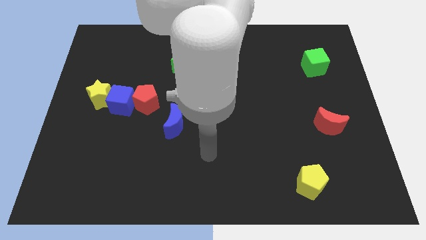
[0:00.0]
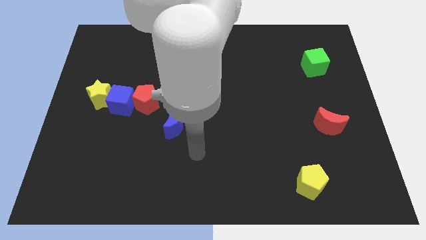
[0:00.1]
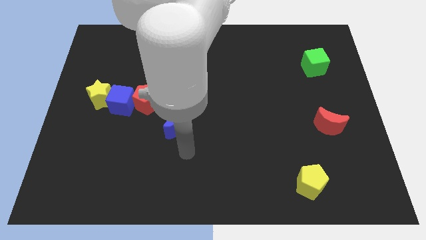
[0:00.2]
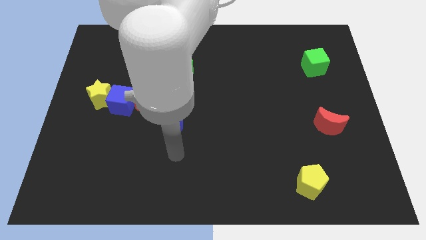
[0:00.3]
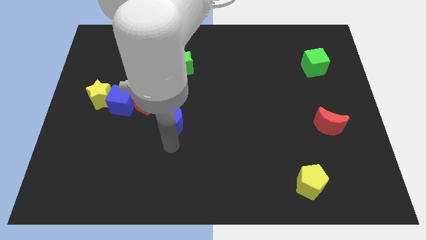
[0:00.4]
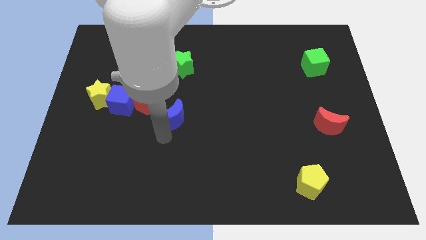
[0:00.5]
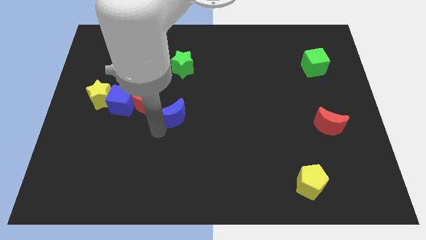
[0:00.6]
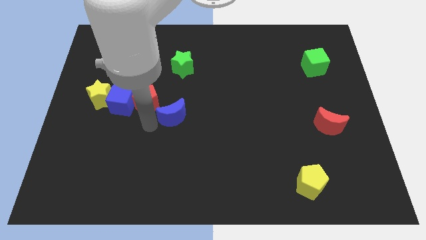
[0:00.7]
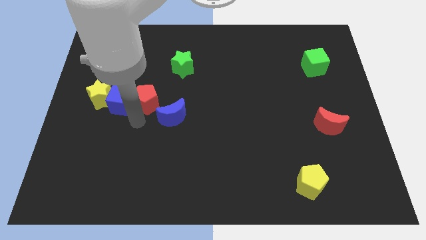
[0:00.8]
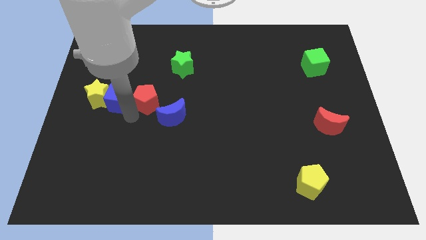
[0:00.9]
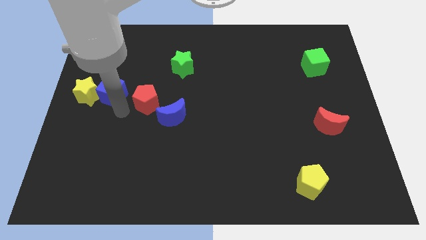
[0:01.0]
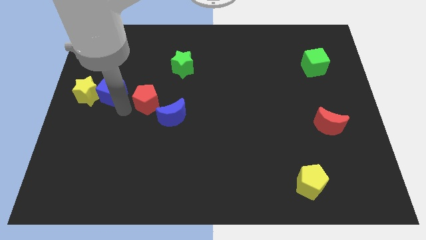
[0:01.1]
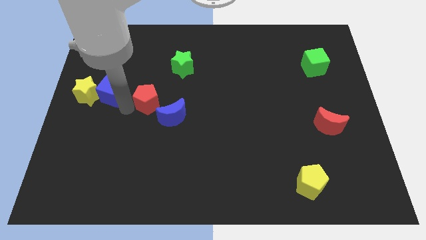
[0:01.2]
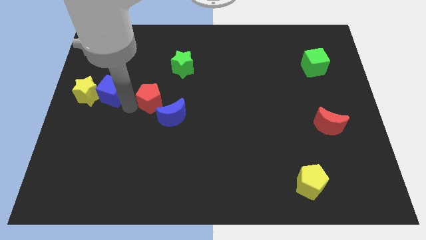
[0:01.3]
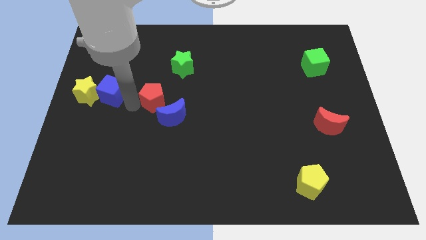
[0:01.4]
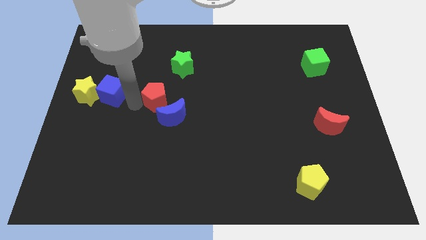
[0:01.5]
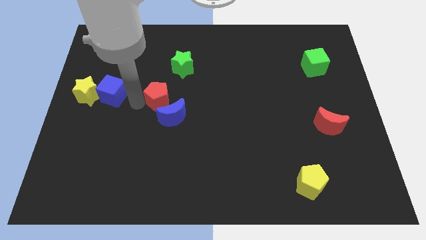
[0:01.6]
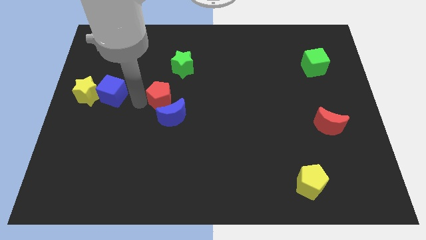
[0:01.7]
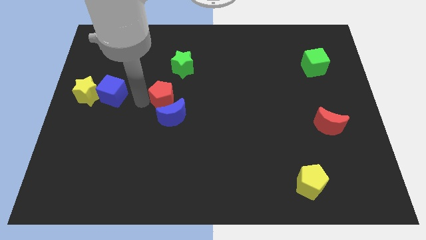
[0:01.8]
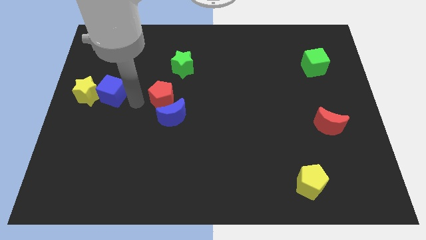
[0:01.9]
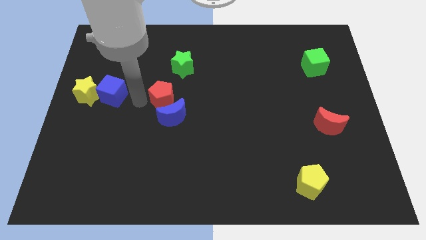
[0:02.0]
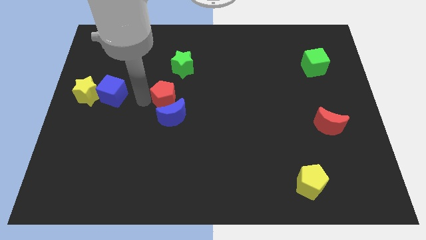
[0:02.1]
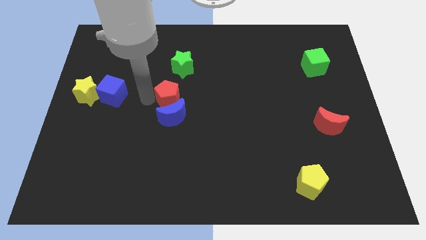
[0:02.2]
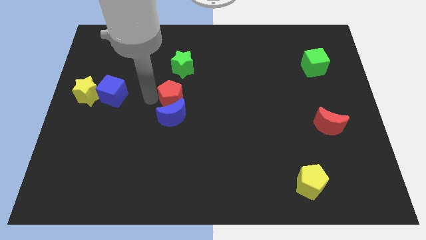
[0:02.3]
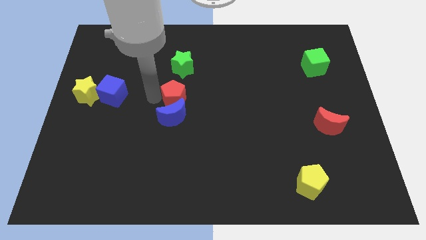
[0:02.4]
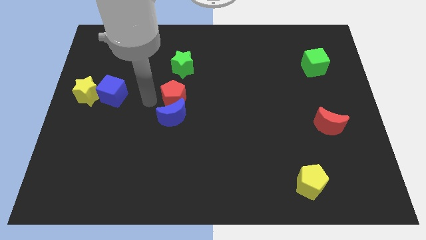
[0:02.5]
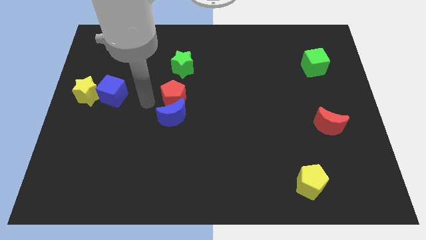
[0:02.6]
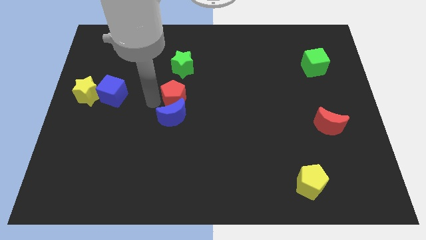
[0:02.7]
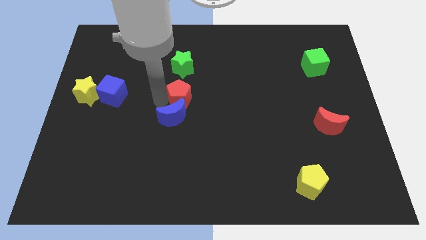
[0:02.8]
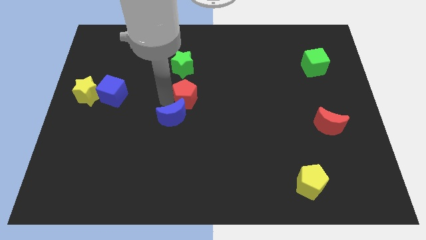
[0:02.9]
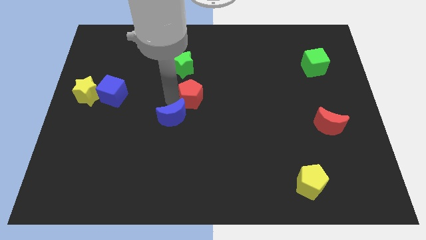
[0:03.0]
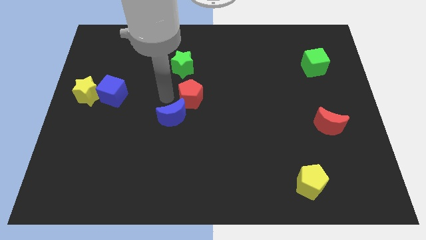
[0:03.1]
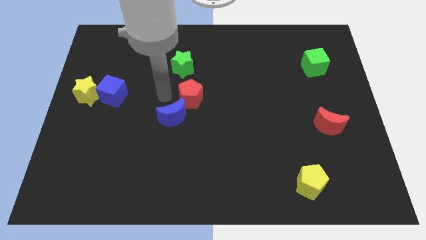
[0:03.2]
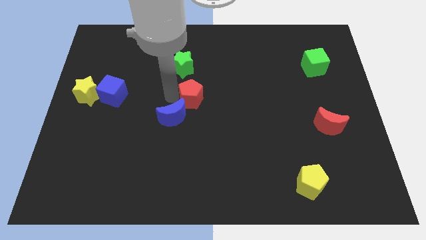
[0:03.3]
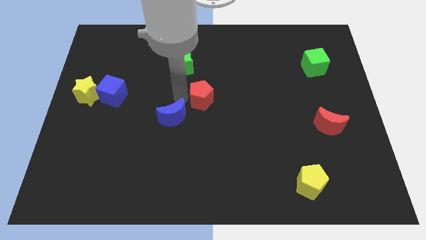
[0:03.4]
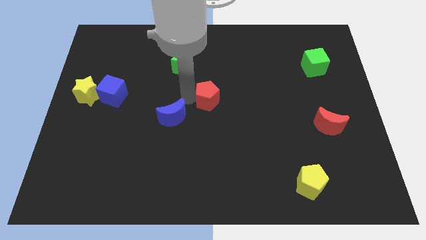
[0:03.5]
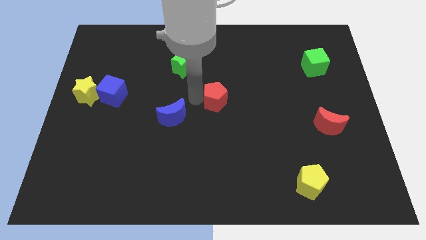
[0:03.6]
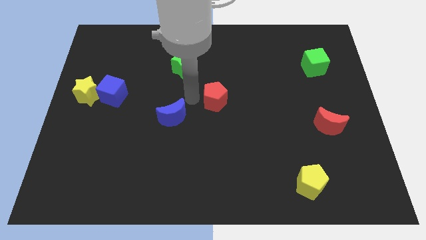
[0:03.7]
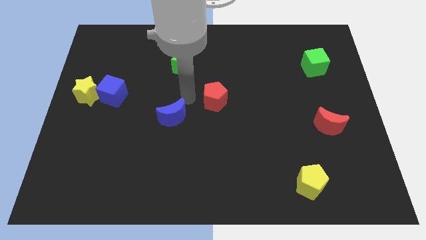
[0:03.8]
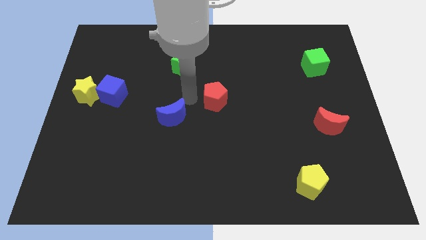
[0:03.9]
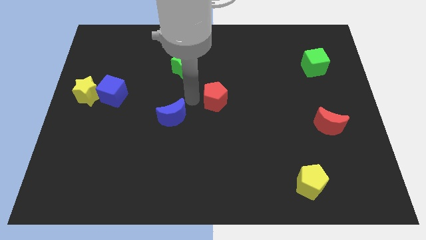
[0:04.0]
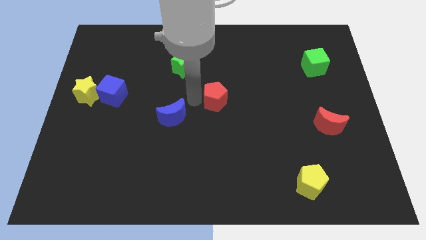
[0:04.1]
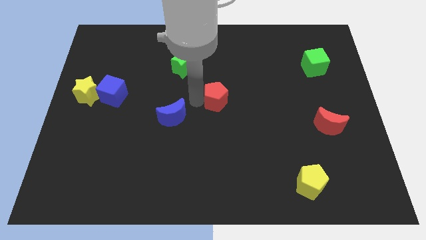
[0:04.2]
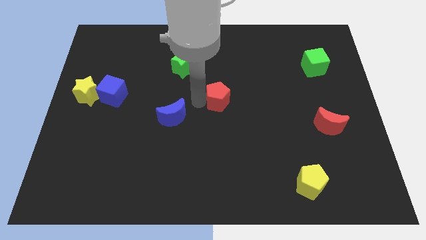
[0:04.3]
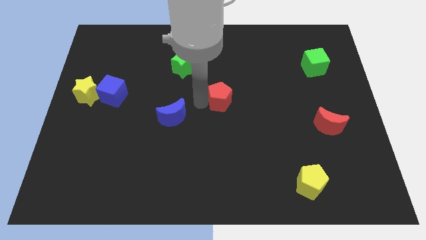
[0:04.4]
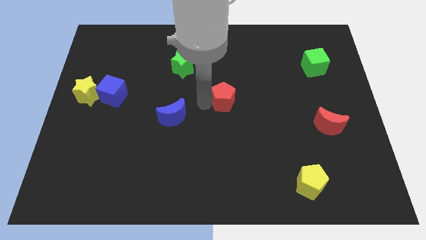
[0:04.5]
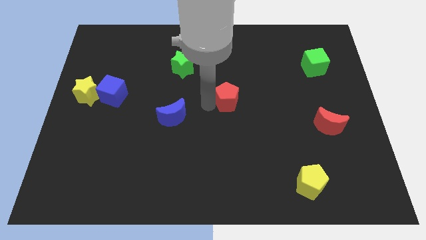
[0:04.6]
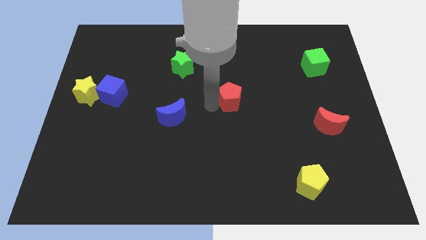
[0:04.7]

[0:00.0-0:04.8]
slide the red pentagon right

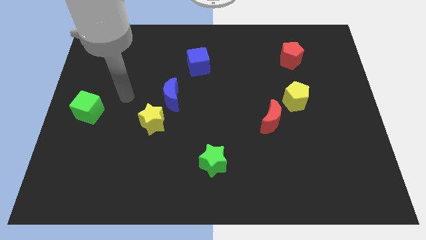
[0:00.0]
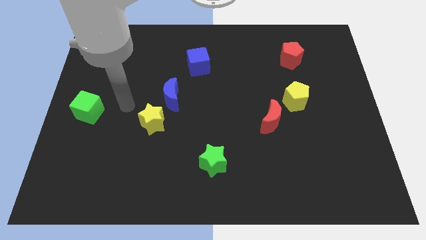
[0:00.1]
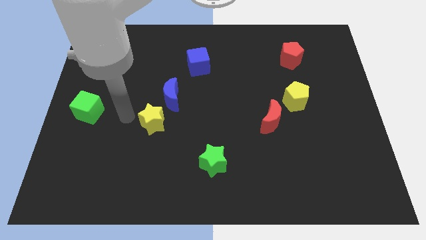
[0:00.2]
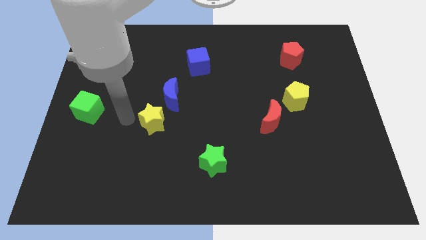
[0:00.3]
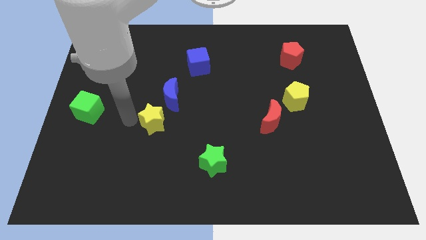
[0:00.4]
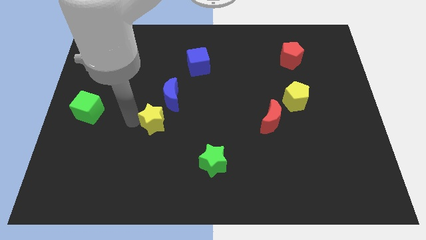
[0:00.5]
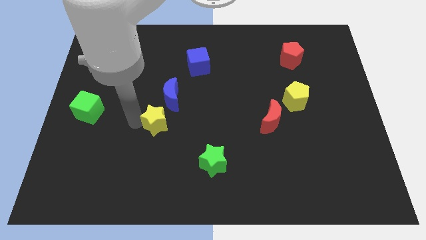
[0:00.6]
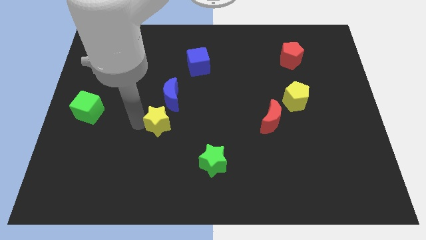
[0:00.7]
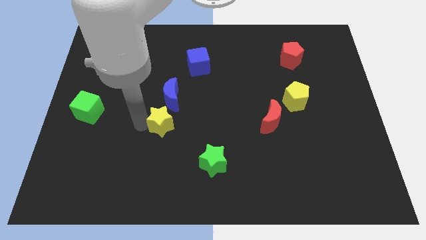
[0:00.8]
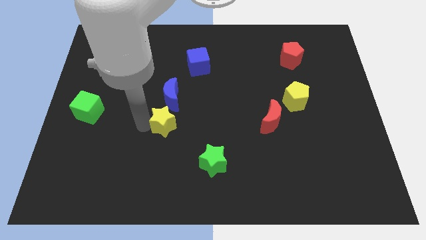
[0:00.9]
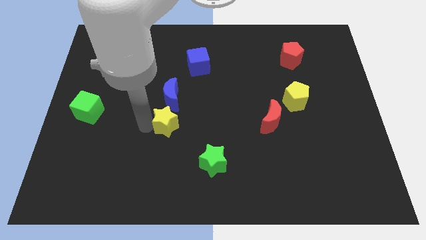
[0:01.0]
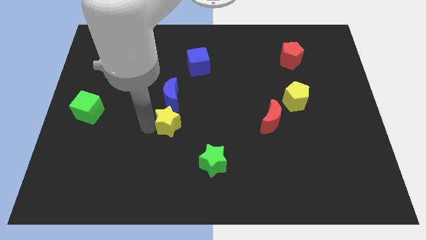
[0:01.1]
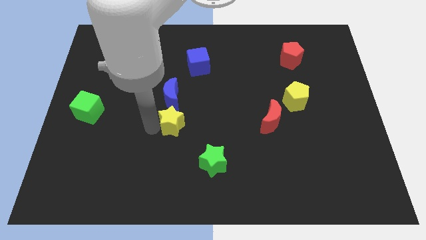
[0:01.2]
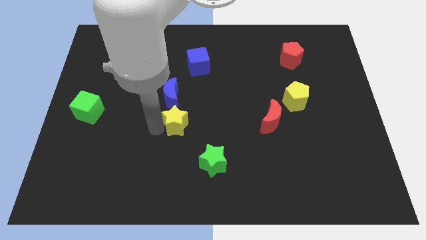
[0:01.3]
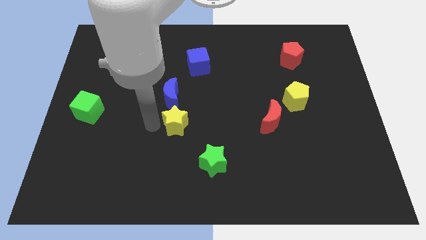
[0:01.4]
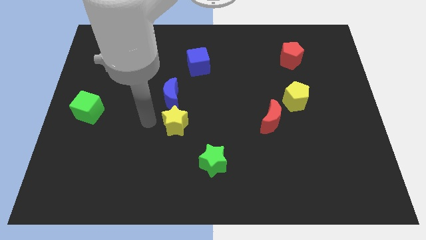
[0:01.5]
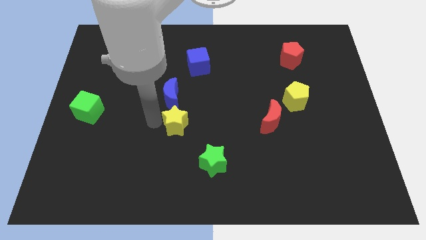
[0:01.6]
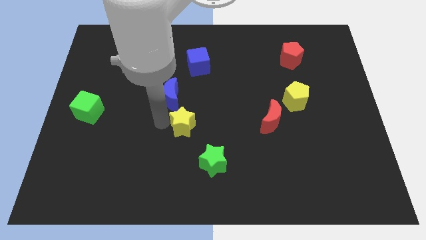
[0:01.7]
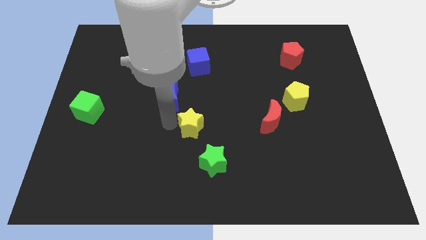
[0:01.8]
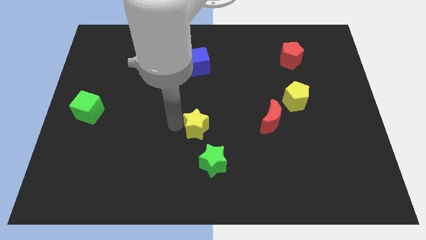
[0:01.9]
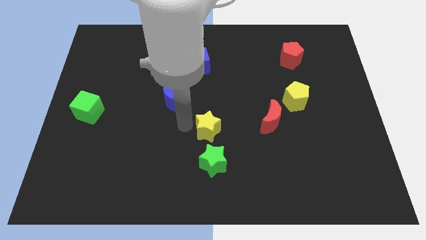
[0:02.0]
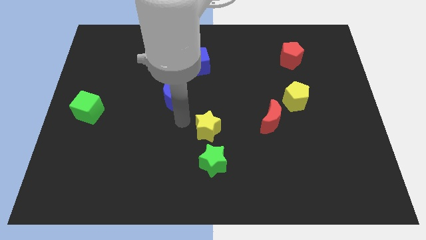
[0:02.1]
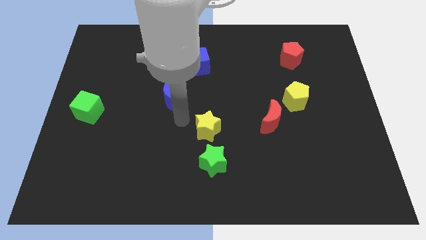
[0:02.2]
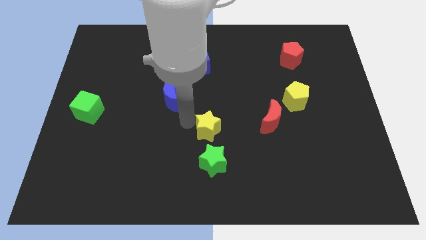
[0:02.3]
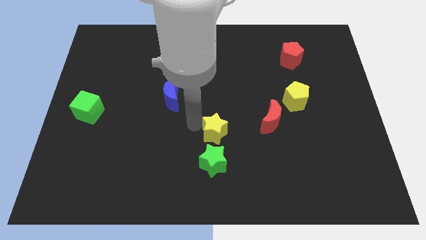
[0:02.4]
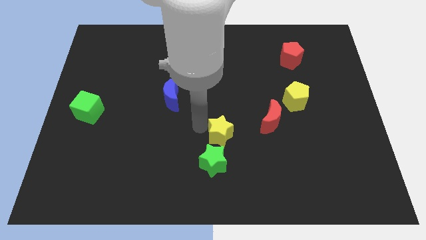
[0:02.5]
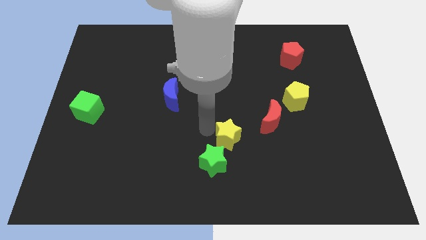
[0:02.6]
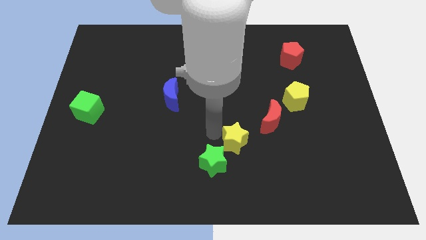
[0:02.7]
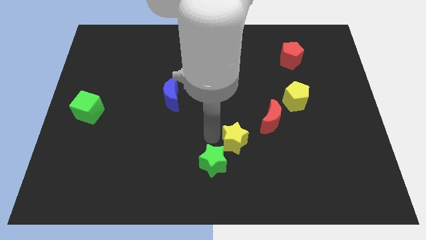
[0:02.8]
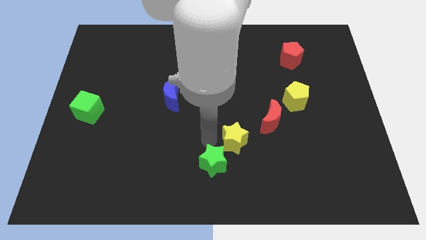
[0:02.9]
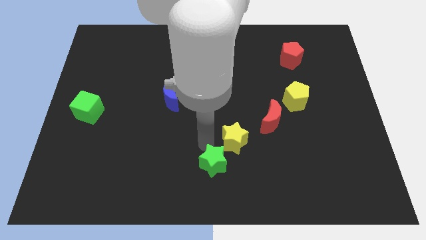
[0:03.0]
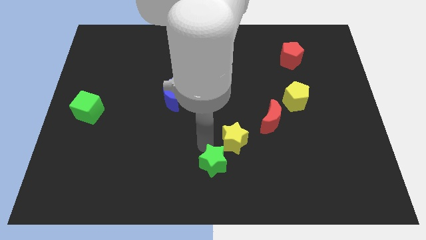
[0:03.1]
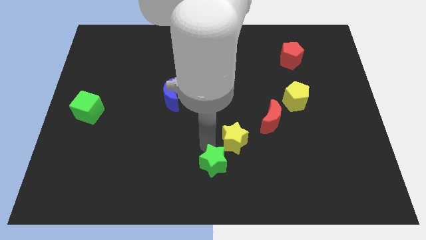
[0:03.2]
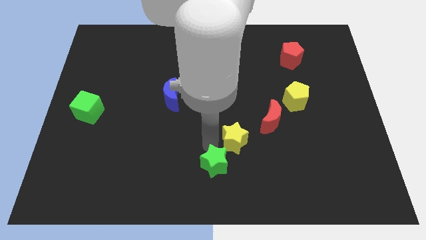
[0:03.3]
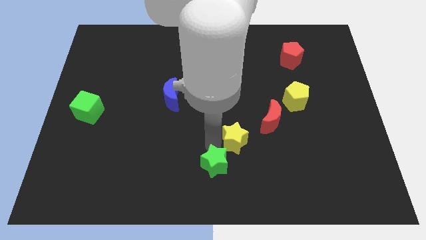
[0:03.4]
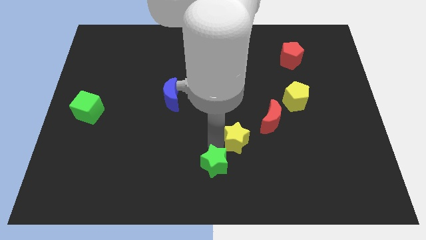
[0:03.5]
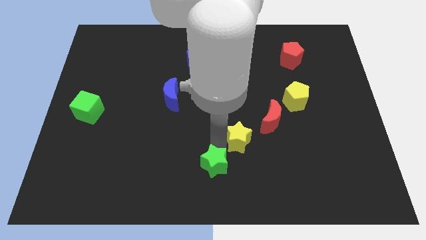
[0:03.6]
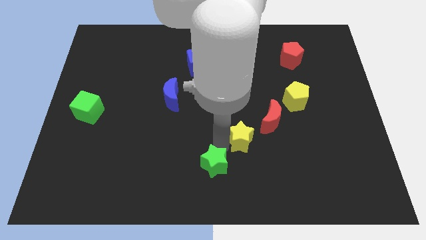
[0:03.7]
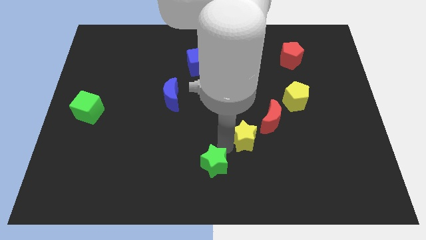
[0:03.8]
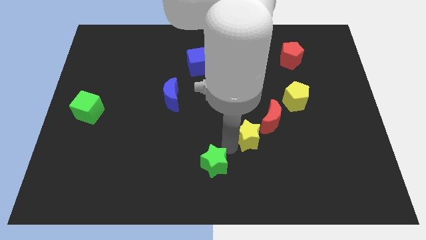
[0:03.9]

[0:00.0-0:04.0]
slide the yellow star right
